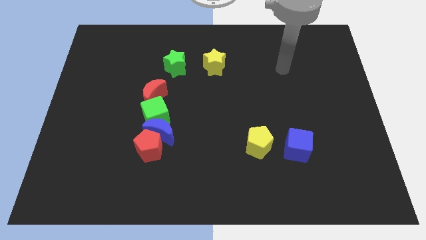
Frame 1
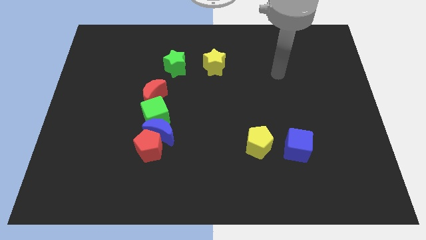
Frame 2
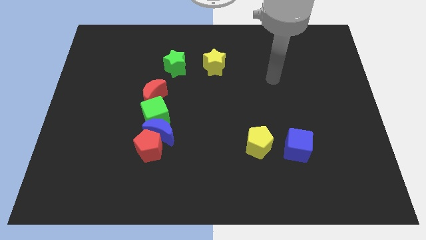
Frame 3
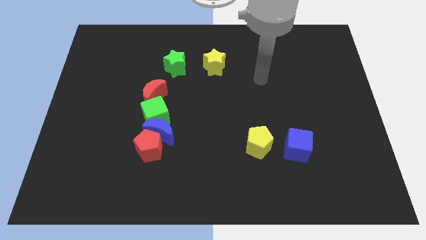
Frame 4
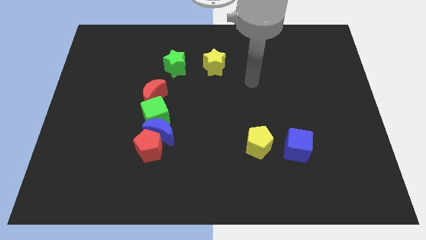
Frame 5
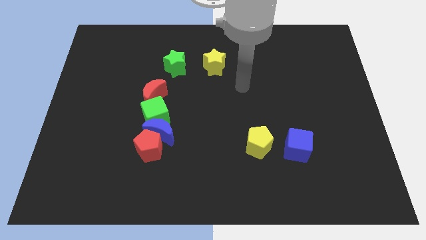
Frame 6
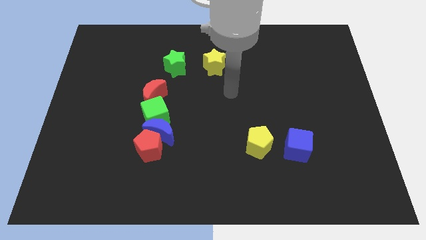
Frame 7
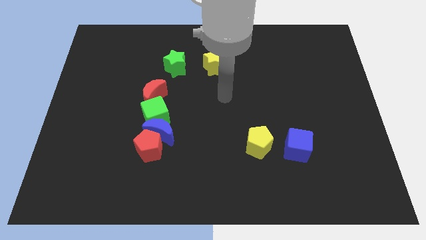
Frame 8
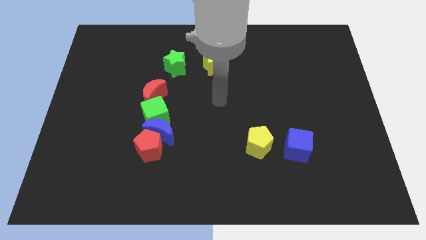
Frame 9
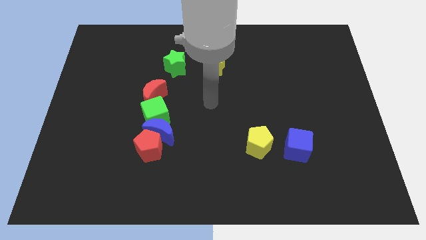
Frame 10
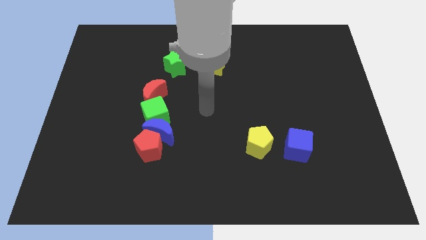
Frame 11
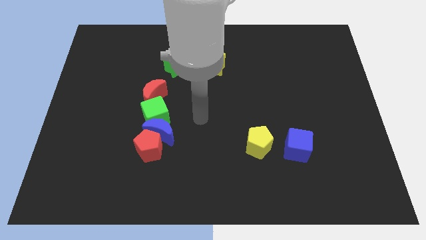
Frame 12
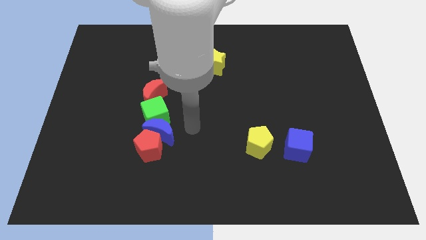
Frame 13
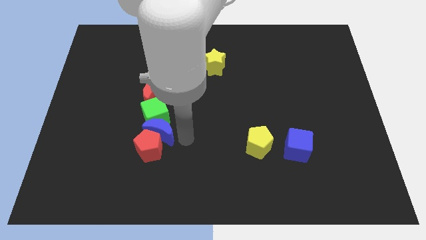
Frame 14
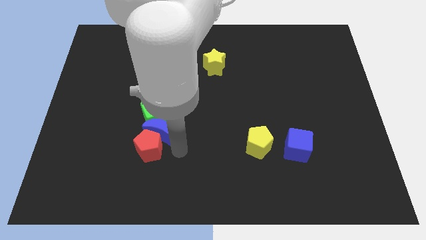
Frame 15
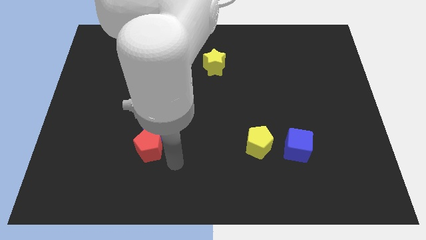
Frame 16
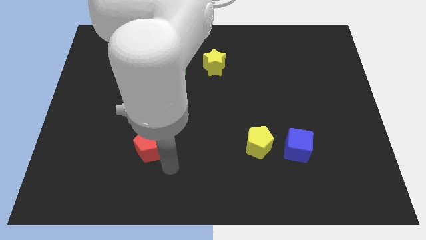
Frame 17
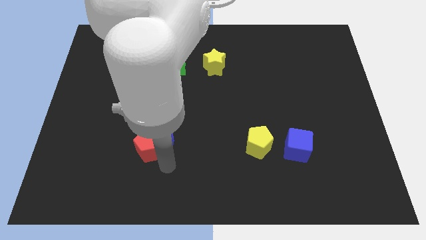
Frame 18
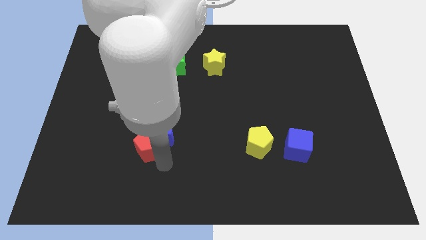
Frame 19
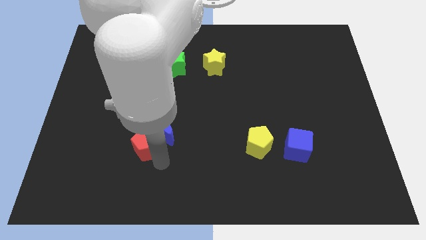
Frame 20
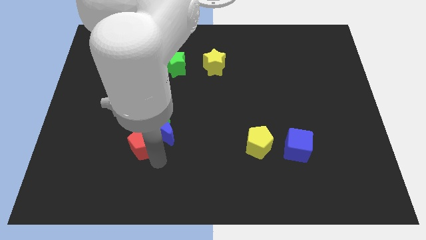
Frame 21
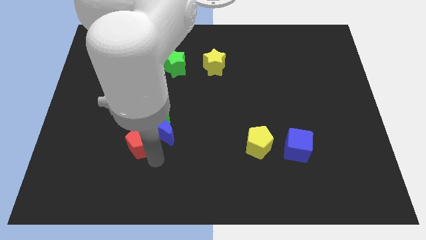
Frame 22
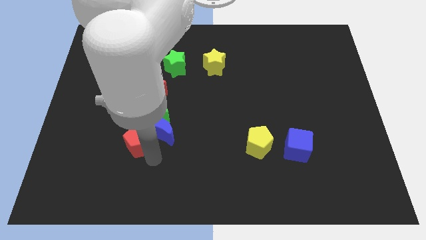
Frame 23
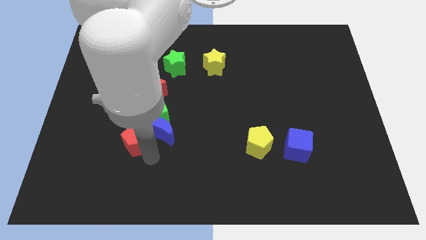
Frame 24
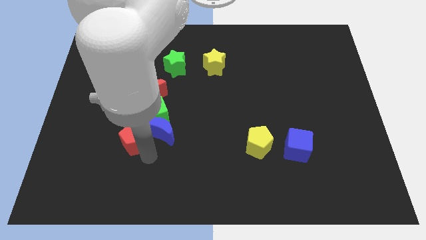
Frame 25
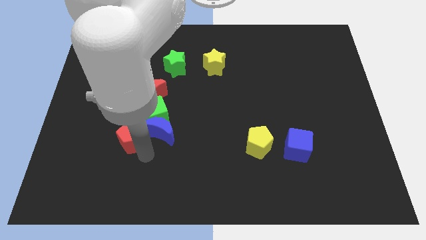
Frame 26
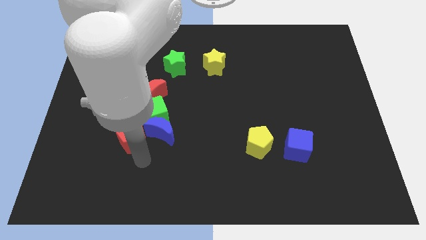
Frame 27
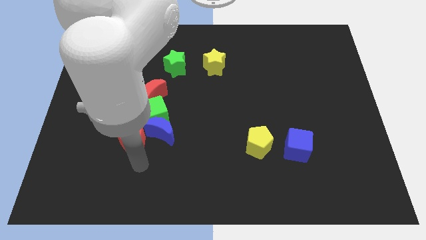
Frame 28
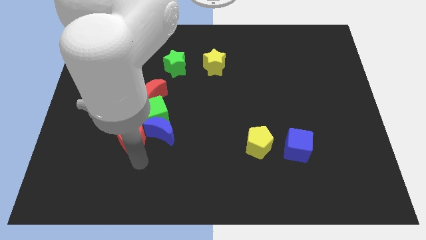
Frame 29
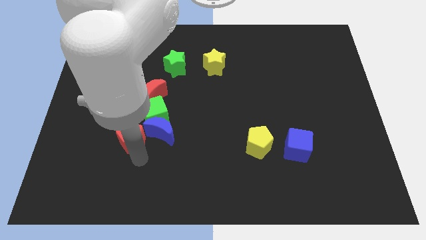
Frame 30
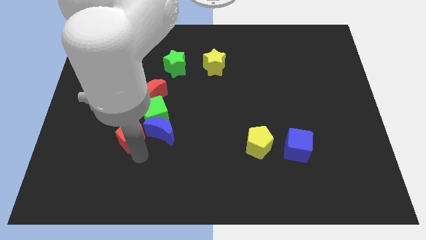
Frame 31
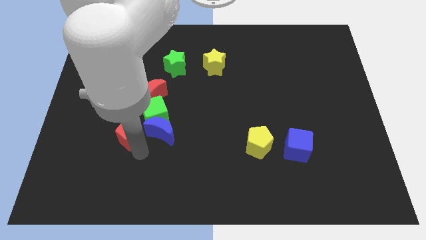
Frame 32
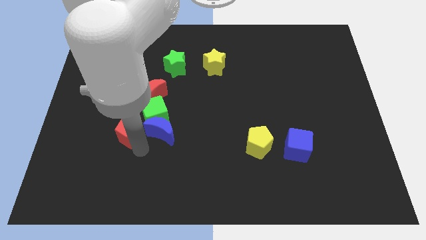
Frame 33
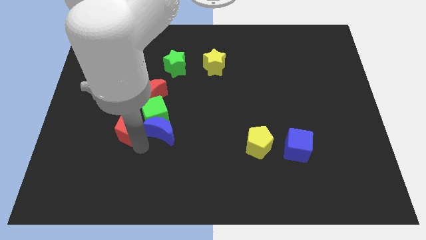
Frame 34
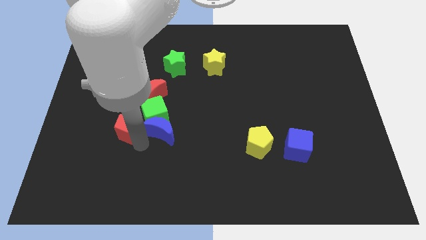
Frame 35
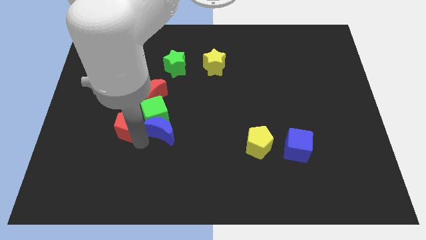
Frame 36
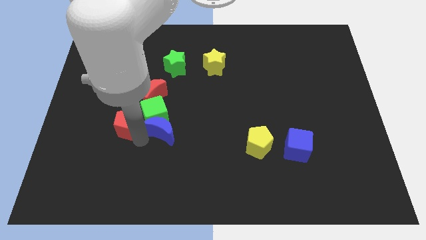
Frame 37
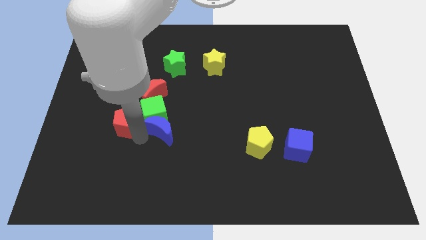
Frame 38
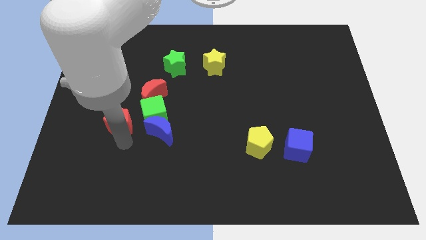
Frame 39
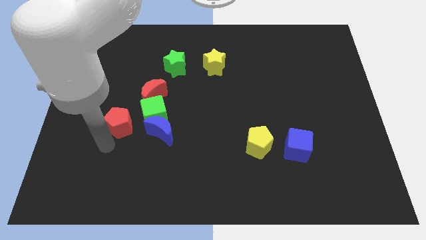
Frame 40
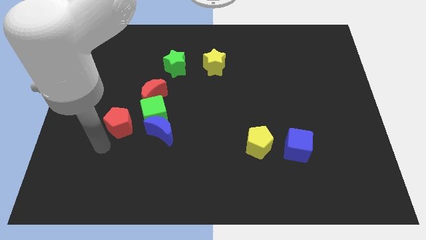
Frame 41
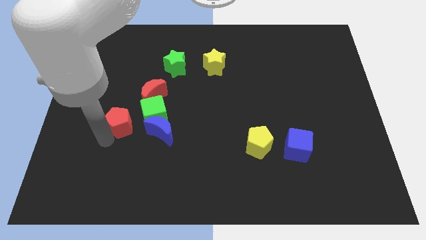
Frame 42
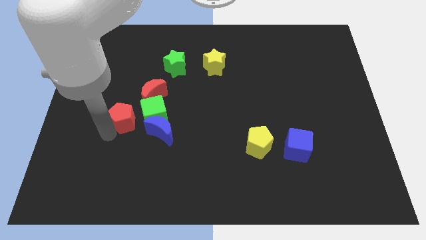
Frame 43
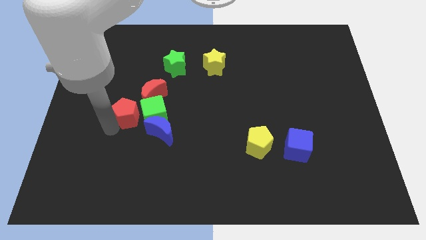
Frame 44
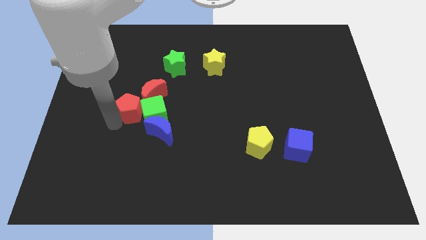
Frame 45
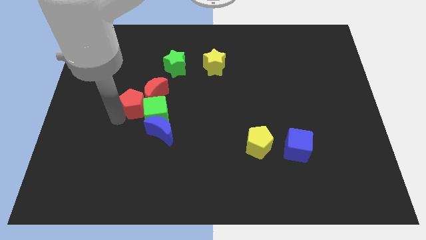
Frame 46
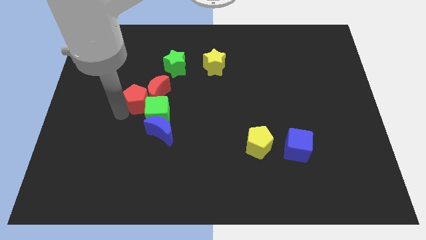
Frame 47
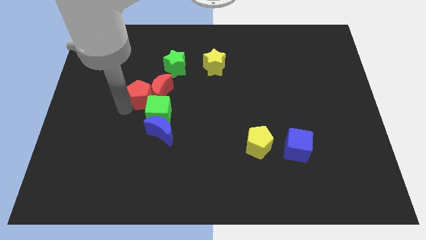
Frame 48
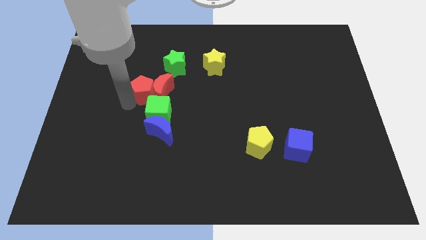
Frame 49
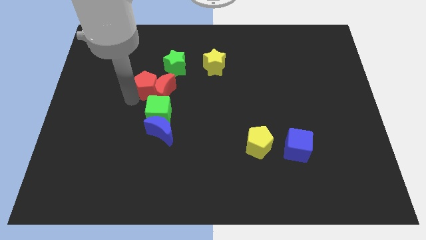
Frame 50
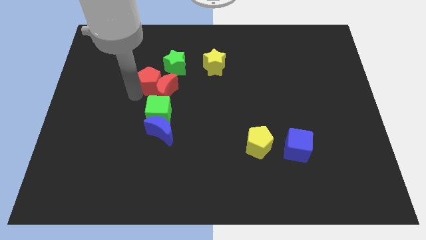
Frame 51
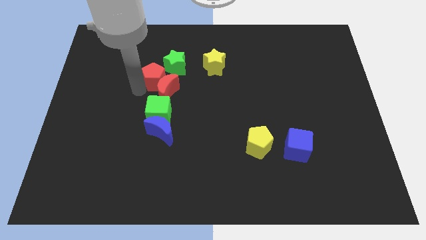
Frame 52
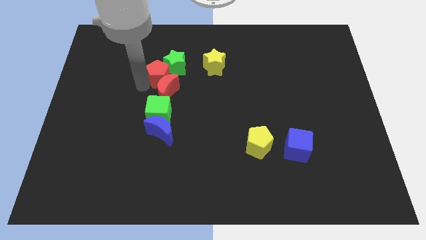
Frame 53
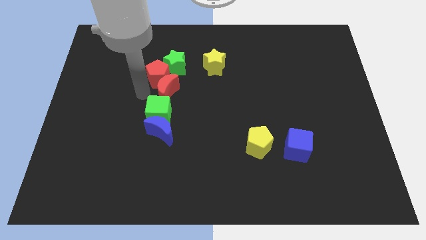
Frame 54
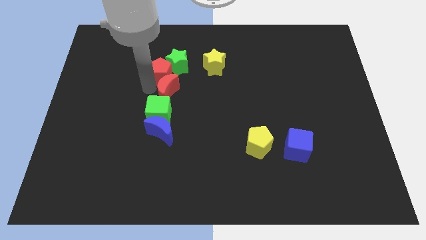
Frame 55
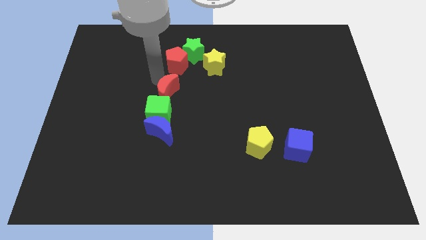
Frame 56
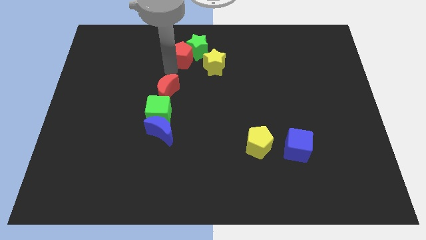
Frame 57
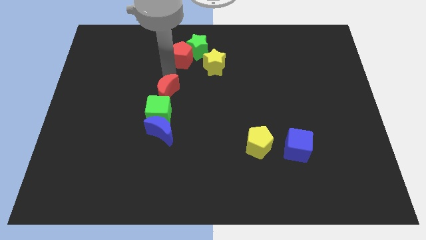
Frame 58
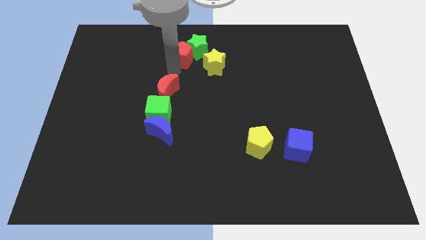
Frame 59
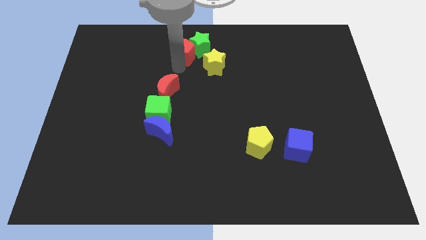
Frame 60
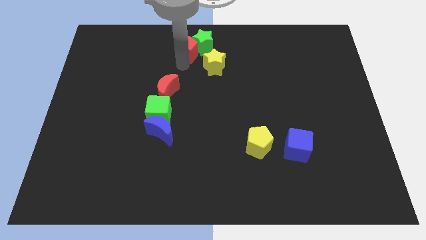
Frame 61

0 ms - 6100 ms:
slide the red pentagon to the top side
